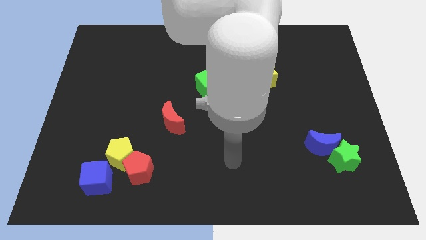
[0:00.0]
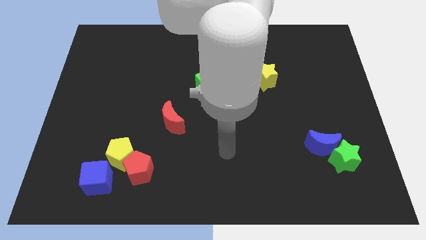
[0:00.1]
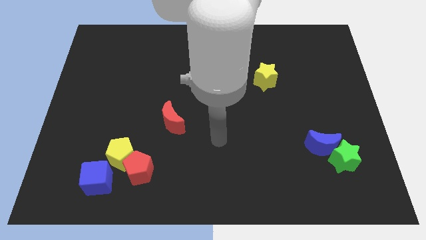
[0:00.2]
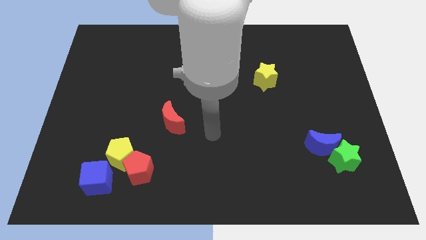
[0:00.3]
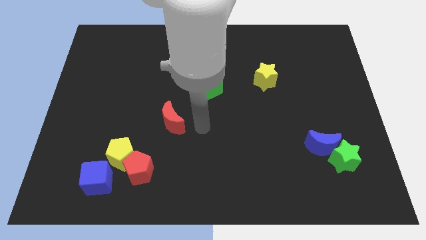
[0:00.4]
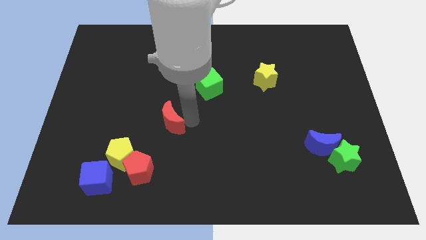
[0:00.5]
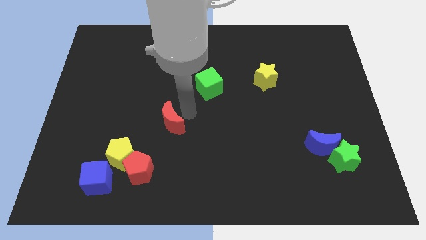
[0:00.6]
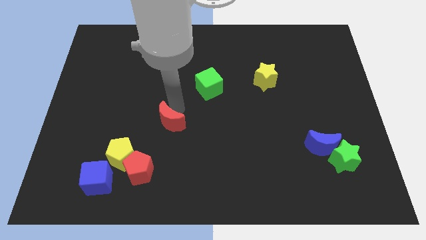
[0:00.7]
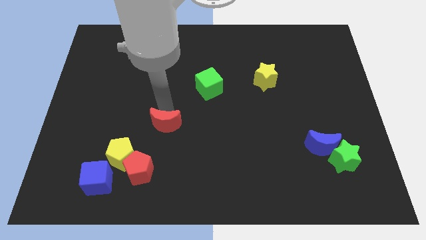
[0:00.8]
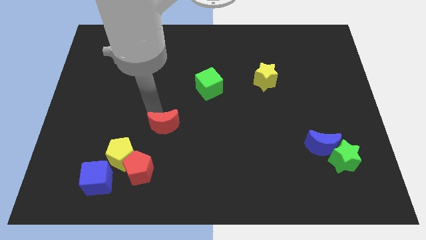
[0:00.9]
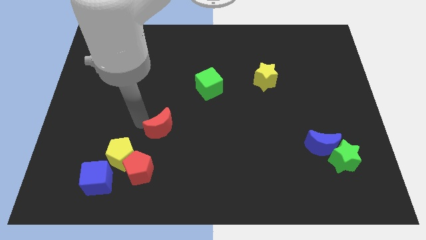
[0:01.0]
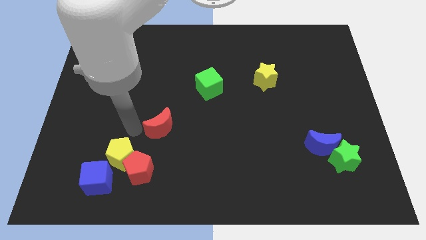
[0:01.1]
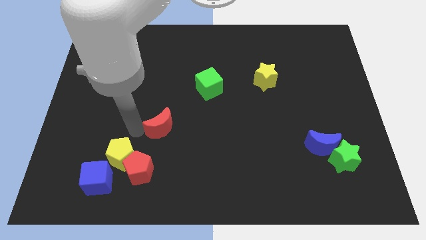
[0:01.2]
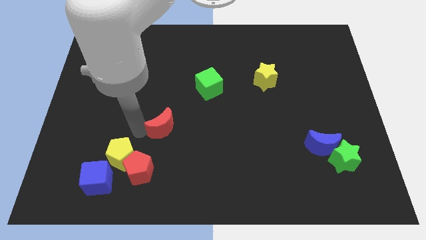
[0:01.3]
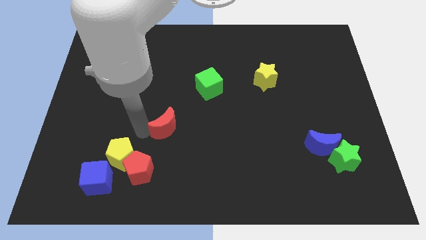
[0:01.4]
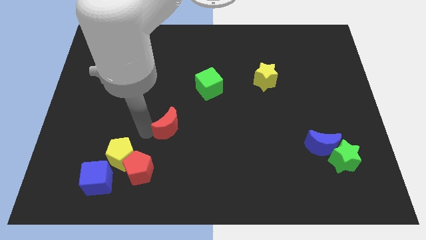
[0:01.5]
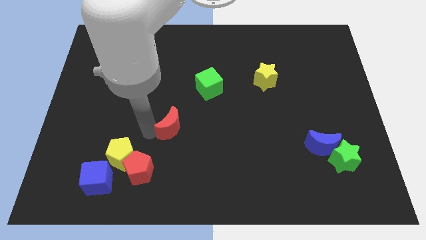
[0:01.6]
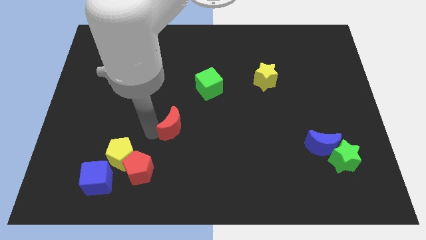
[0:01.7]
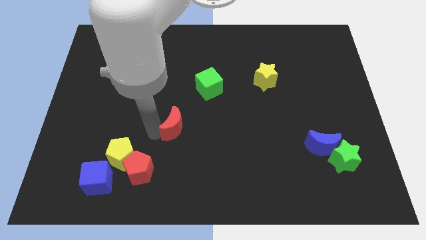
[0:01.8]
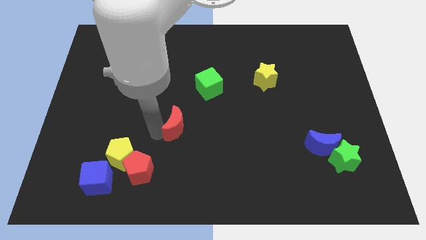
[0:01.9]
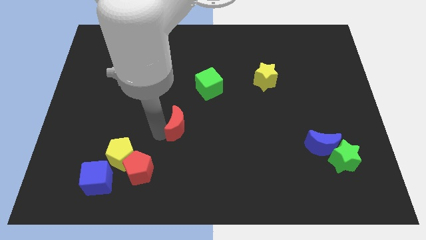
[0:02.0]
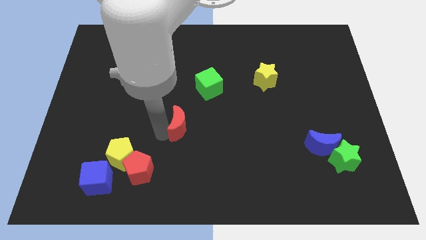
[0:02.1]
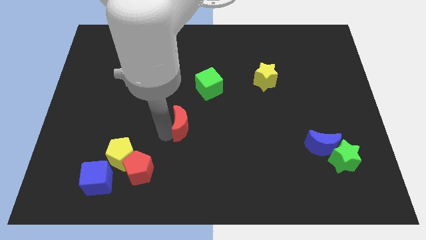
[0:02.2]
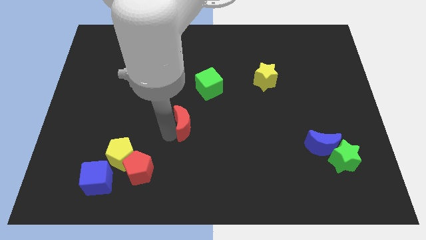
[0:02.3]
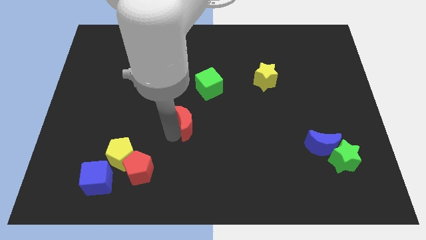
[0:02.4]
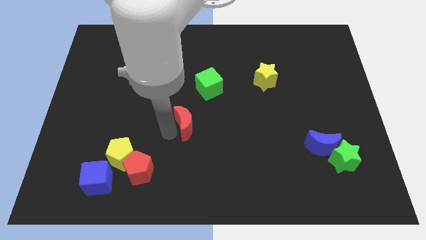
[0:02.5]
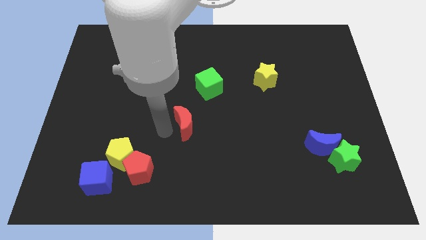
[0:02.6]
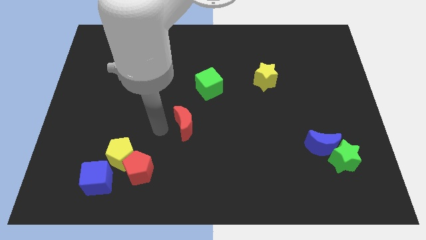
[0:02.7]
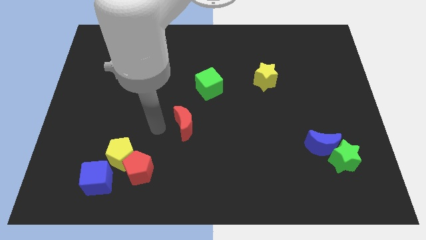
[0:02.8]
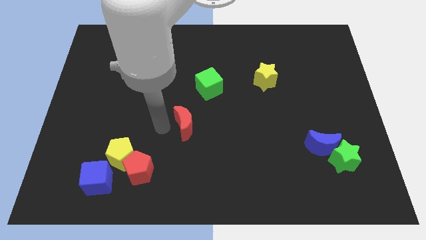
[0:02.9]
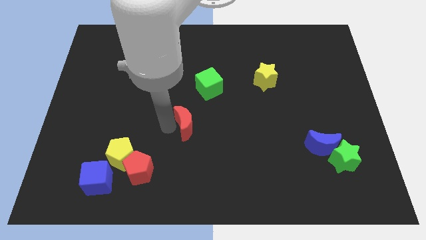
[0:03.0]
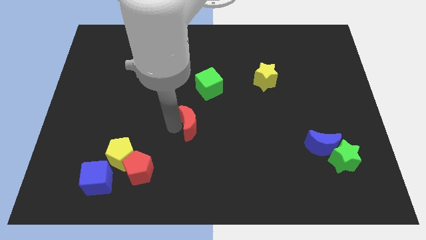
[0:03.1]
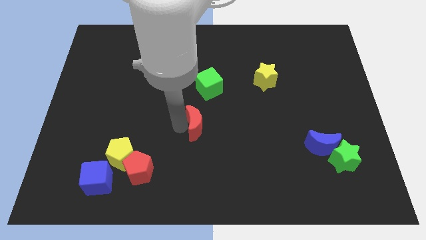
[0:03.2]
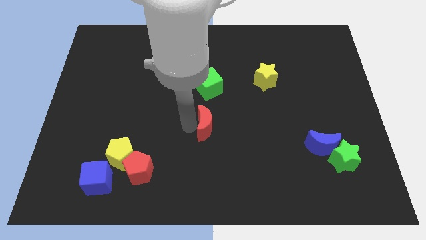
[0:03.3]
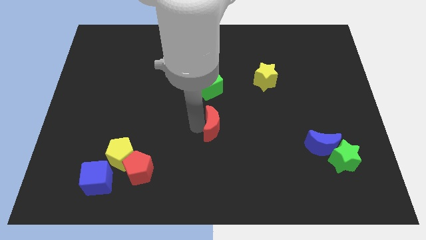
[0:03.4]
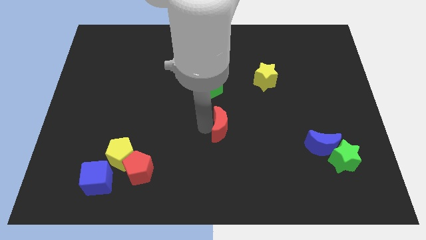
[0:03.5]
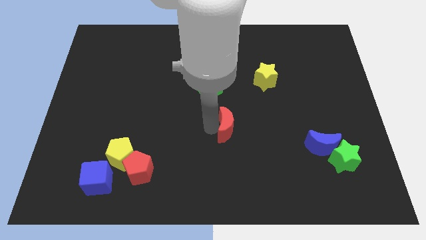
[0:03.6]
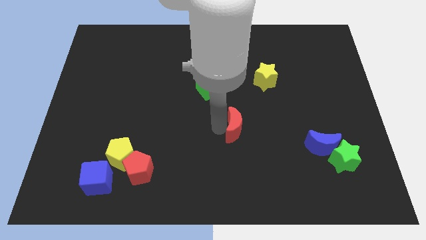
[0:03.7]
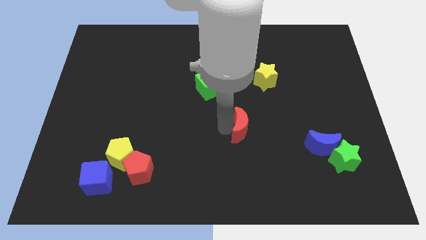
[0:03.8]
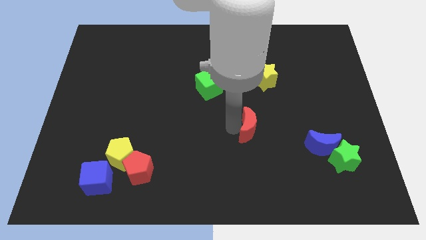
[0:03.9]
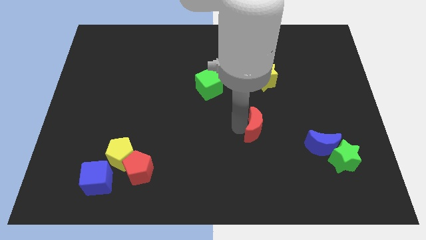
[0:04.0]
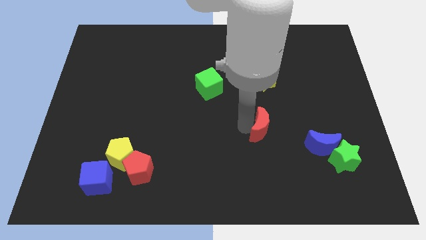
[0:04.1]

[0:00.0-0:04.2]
slide the red moon to the right

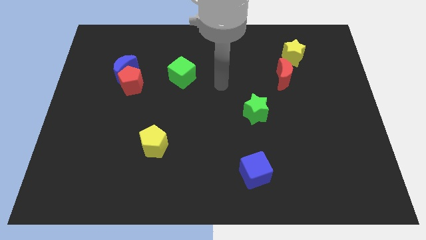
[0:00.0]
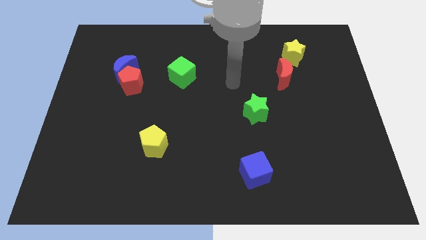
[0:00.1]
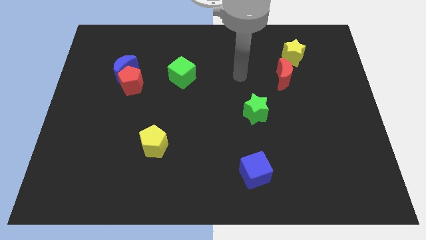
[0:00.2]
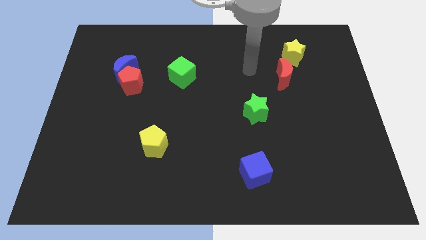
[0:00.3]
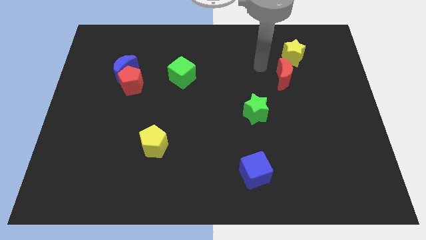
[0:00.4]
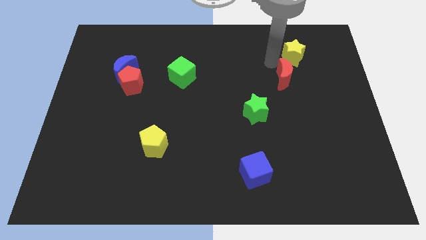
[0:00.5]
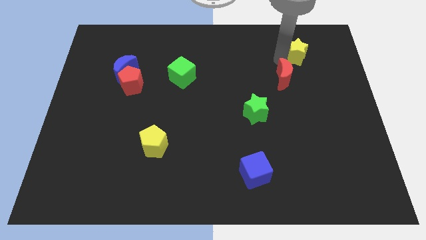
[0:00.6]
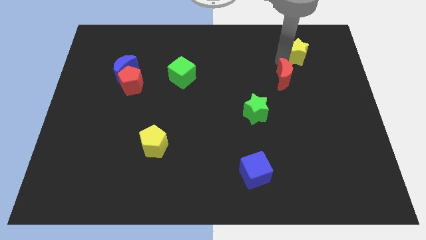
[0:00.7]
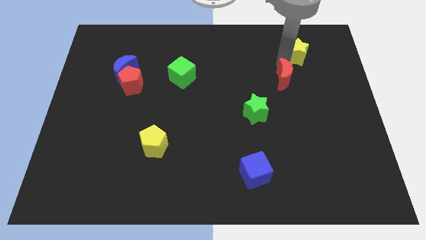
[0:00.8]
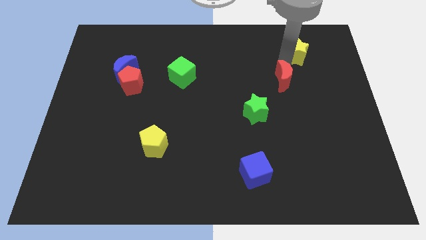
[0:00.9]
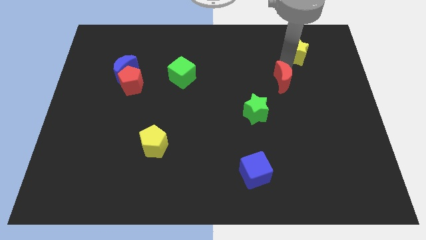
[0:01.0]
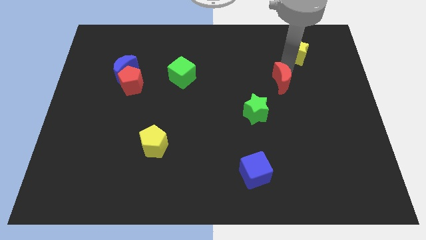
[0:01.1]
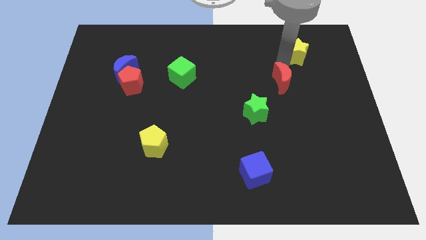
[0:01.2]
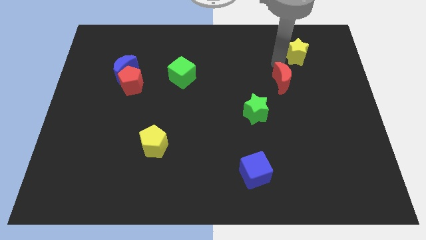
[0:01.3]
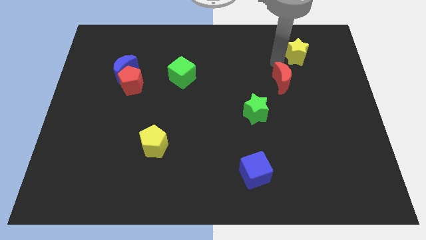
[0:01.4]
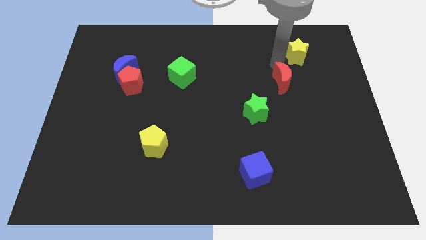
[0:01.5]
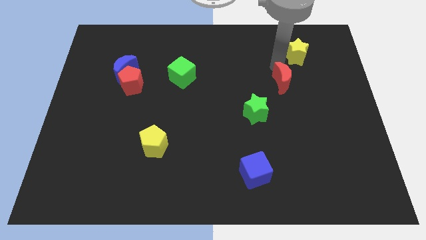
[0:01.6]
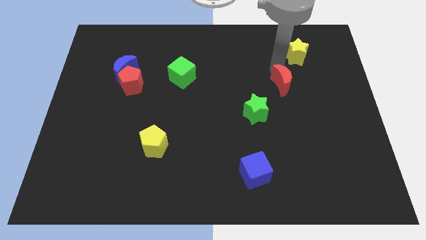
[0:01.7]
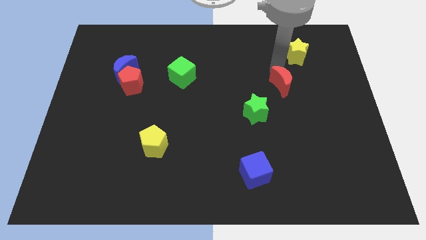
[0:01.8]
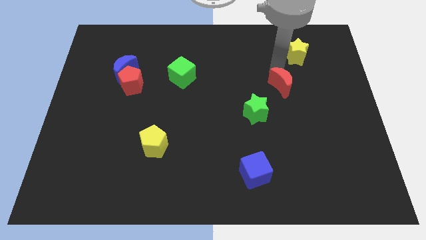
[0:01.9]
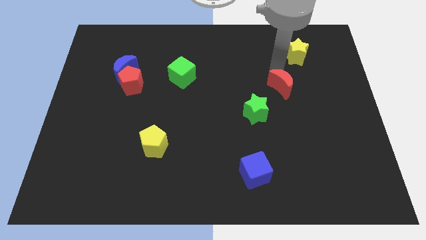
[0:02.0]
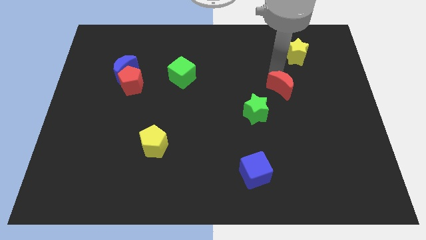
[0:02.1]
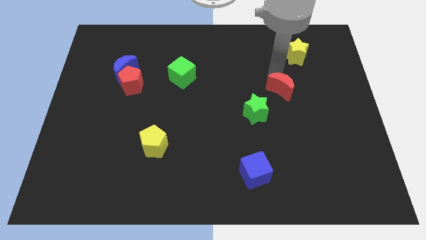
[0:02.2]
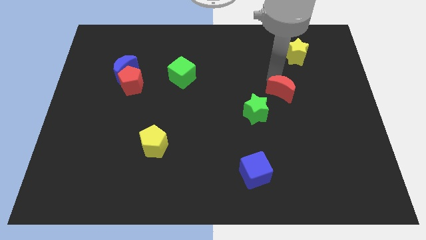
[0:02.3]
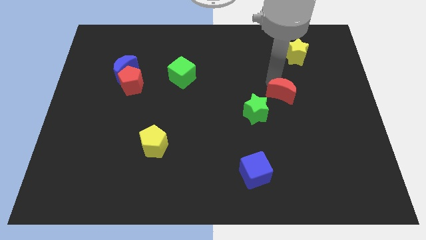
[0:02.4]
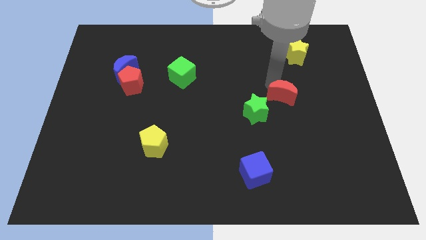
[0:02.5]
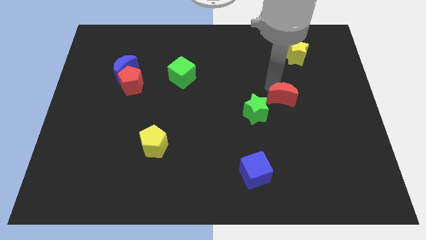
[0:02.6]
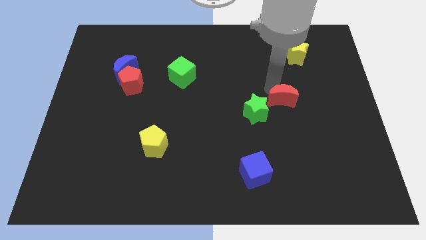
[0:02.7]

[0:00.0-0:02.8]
slightly move the red moon down

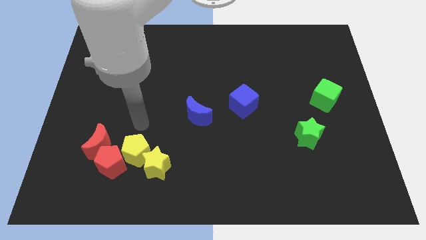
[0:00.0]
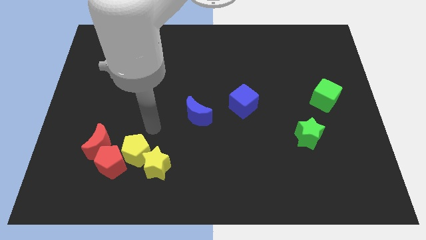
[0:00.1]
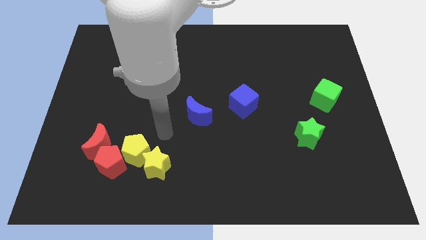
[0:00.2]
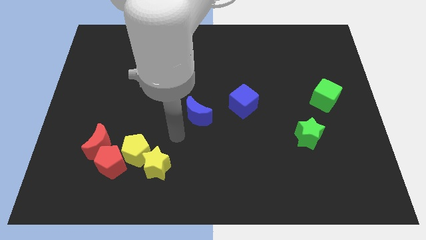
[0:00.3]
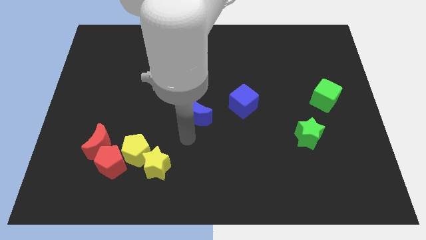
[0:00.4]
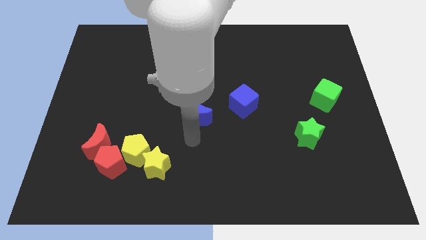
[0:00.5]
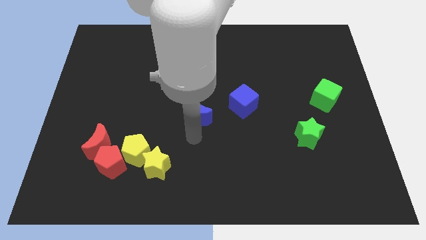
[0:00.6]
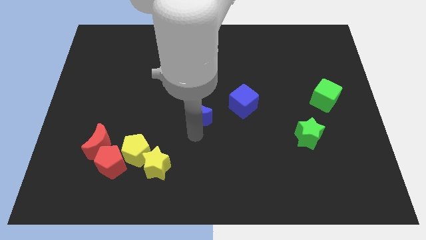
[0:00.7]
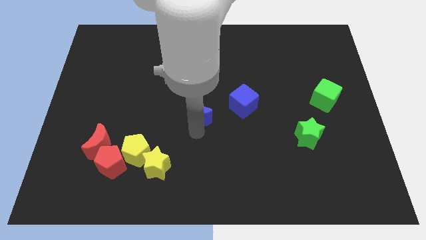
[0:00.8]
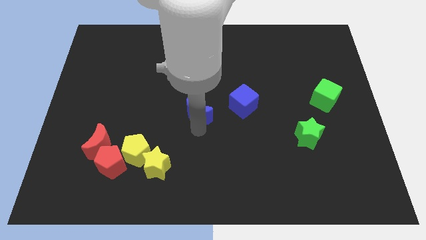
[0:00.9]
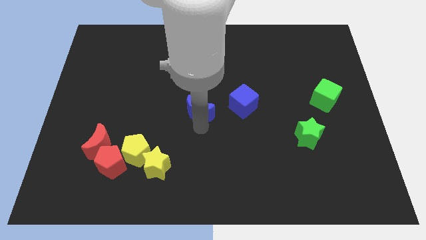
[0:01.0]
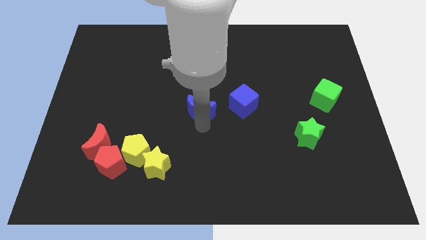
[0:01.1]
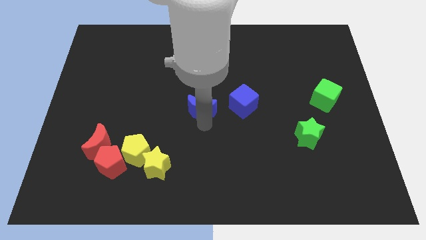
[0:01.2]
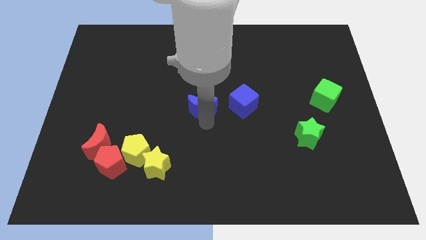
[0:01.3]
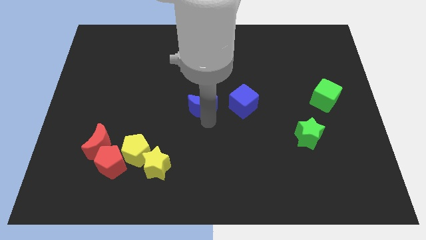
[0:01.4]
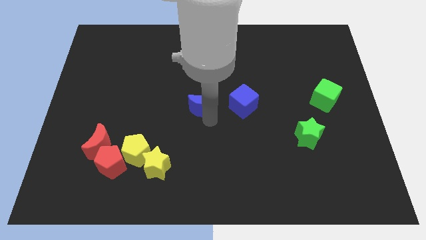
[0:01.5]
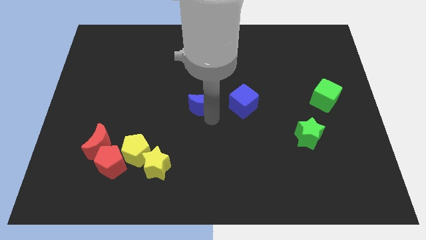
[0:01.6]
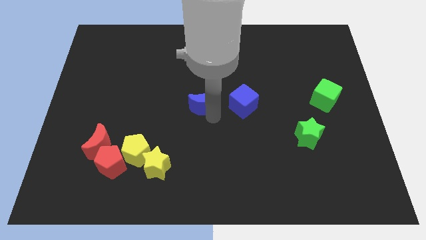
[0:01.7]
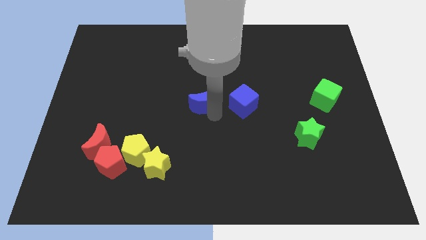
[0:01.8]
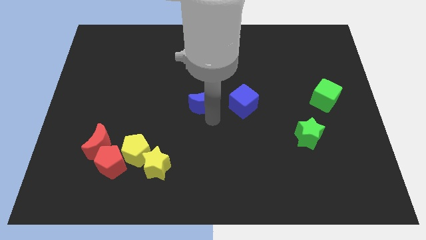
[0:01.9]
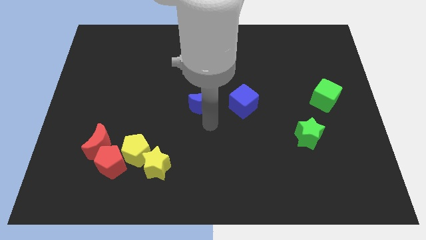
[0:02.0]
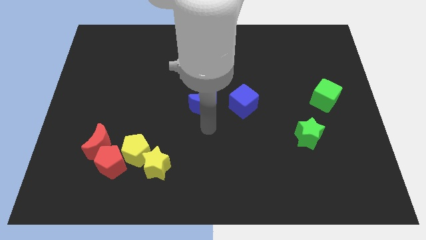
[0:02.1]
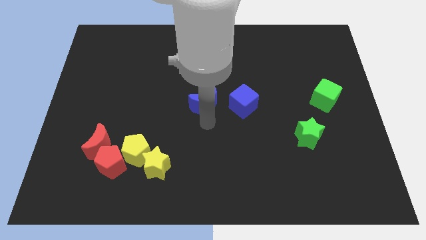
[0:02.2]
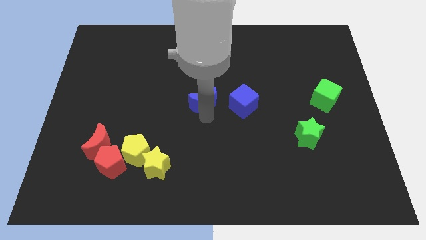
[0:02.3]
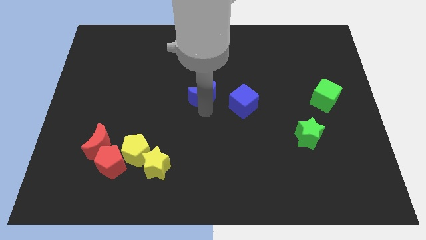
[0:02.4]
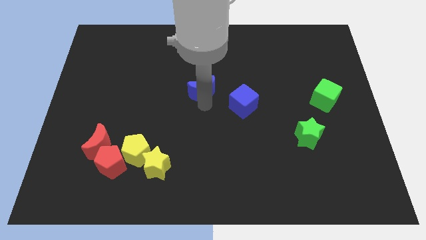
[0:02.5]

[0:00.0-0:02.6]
push the blue moon upwards somewhat
